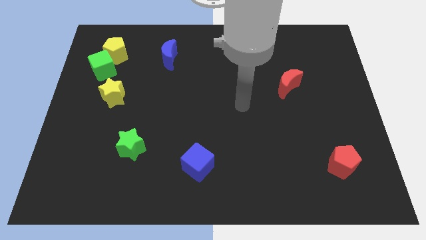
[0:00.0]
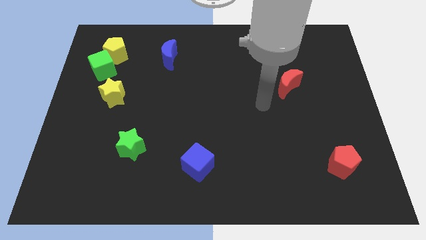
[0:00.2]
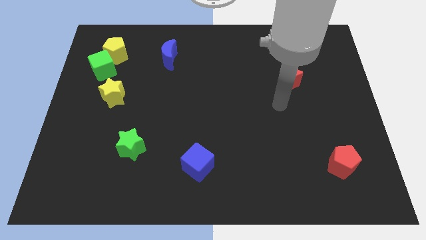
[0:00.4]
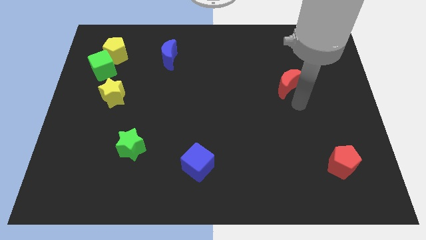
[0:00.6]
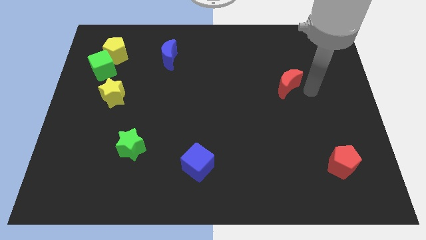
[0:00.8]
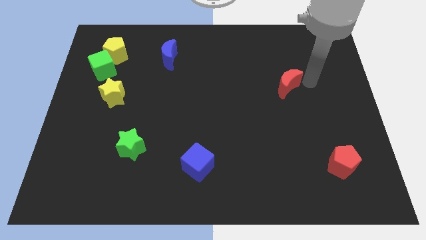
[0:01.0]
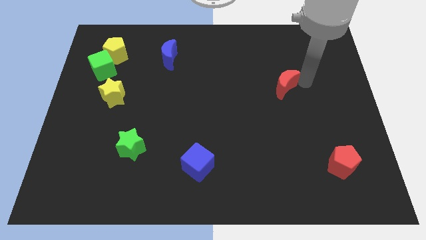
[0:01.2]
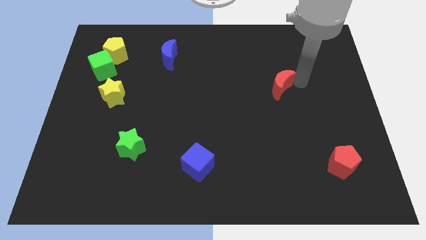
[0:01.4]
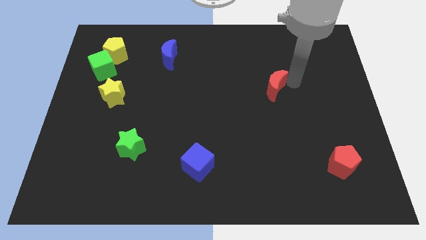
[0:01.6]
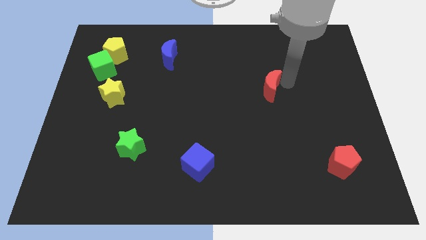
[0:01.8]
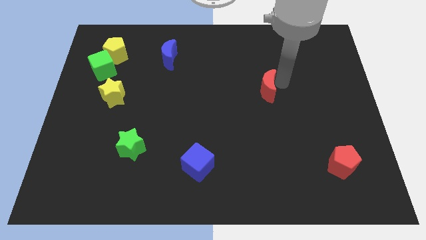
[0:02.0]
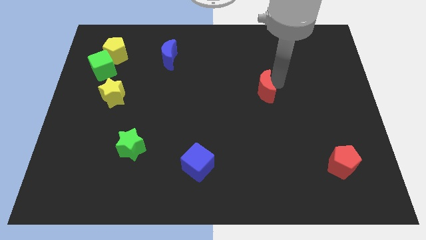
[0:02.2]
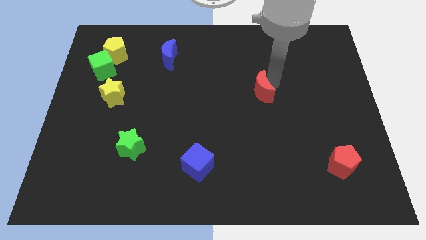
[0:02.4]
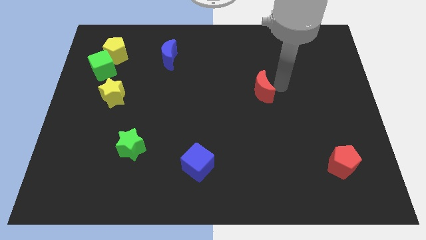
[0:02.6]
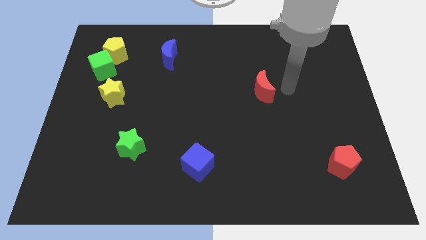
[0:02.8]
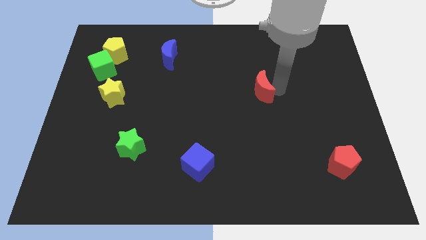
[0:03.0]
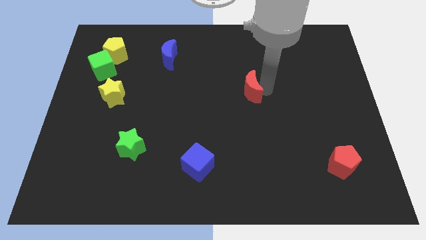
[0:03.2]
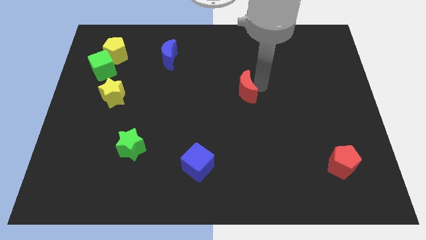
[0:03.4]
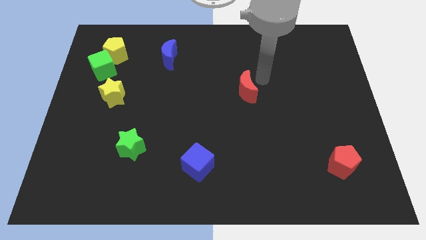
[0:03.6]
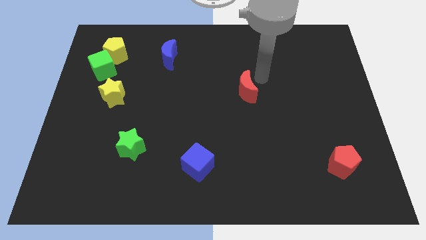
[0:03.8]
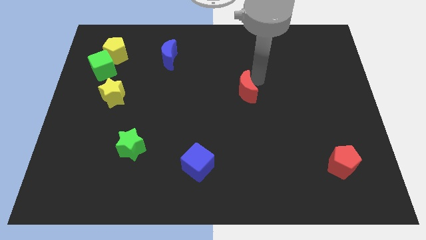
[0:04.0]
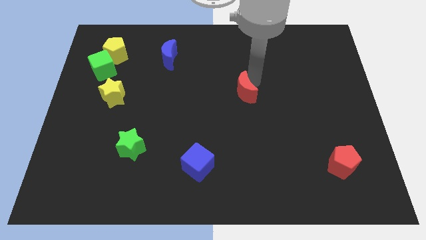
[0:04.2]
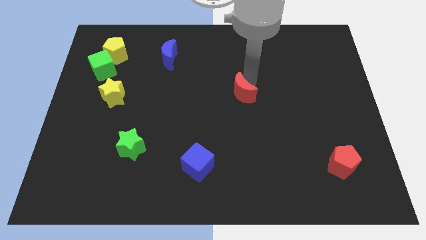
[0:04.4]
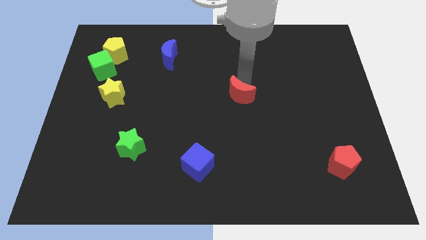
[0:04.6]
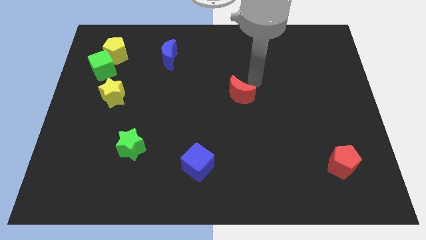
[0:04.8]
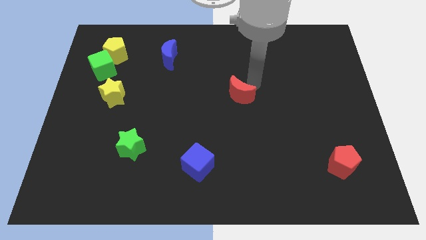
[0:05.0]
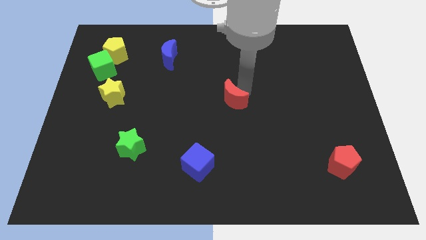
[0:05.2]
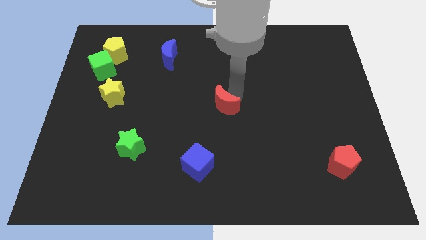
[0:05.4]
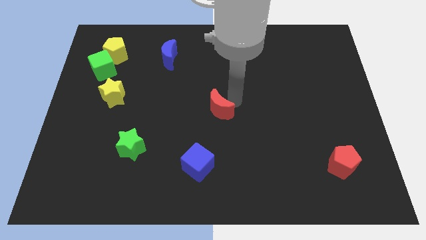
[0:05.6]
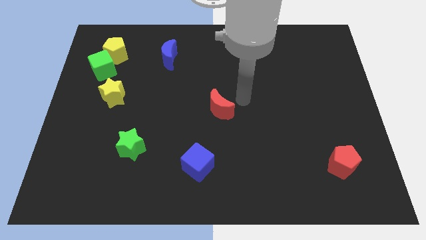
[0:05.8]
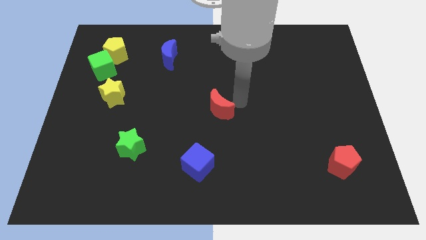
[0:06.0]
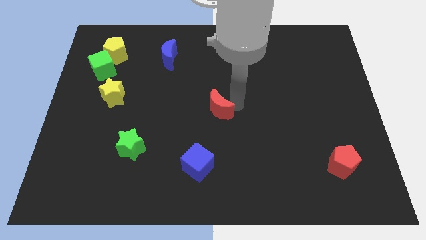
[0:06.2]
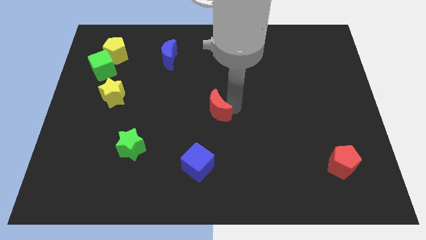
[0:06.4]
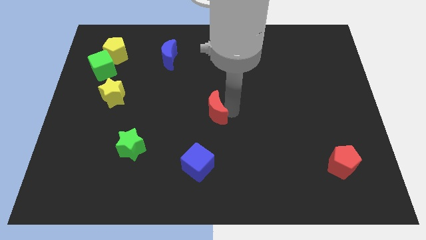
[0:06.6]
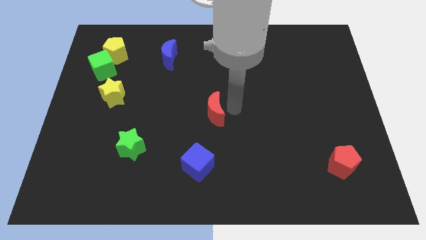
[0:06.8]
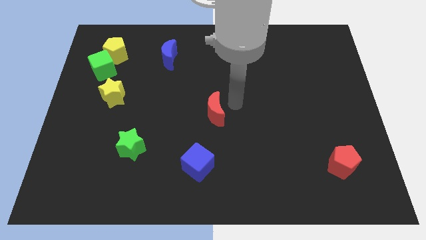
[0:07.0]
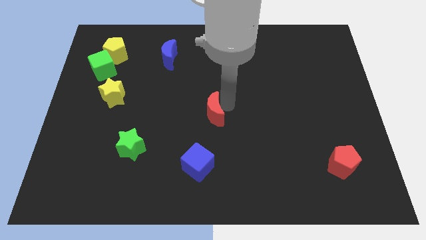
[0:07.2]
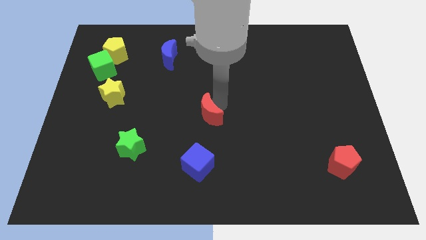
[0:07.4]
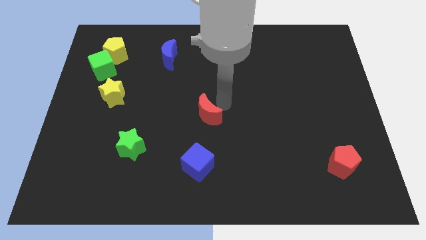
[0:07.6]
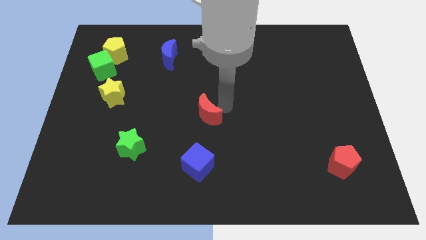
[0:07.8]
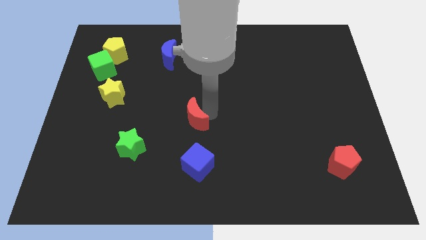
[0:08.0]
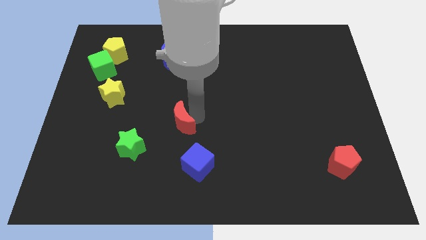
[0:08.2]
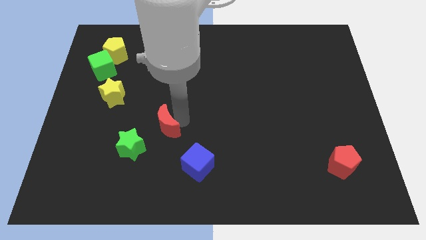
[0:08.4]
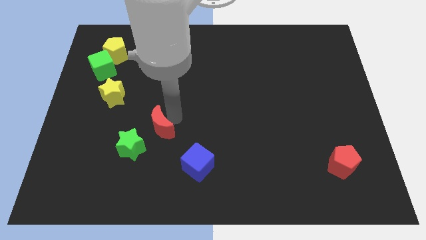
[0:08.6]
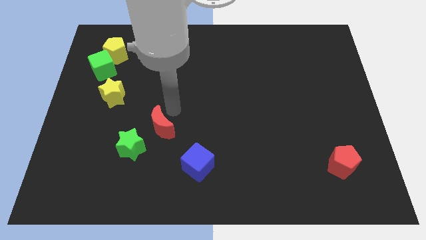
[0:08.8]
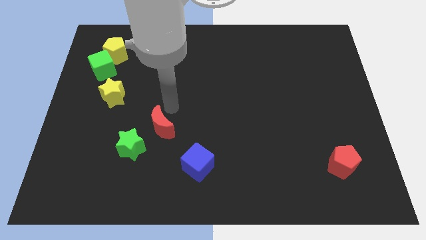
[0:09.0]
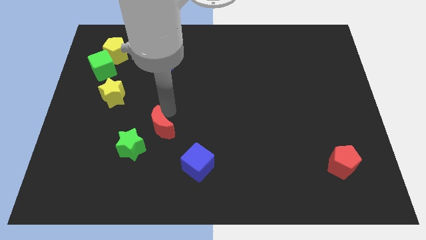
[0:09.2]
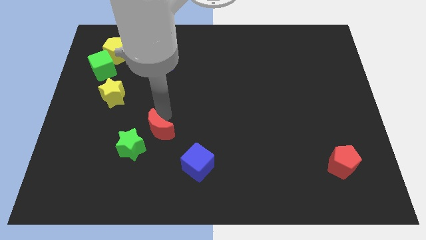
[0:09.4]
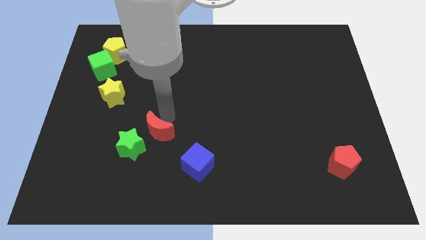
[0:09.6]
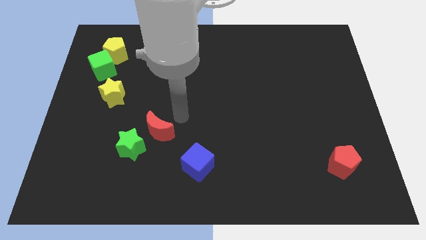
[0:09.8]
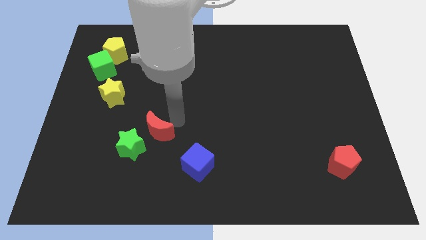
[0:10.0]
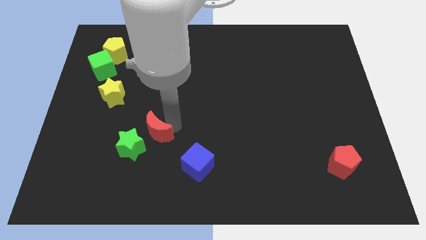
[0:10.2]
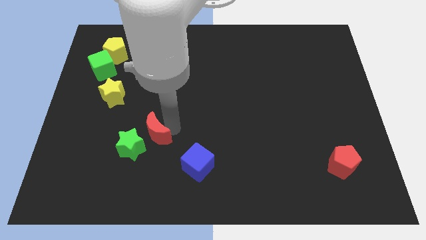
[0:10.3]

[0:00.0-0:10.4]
push the red moon close to the green star

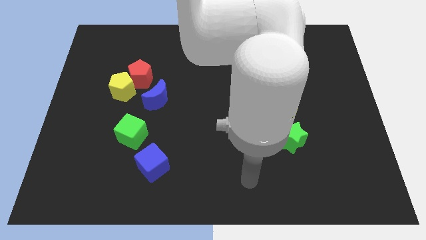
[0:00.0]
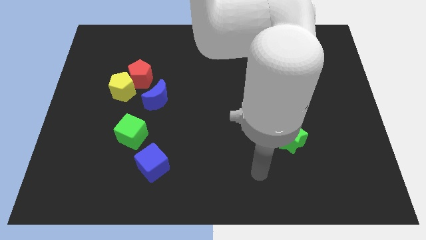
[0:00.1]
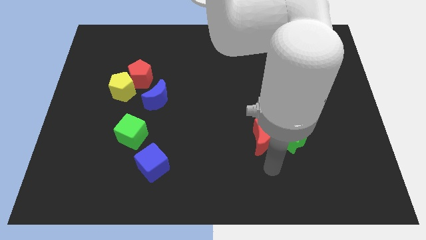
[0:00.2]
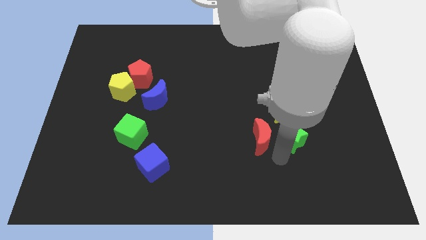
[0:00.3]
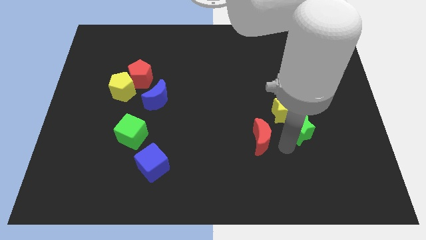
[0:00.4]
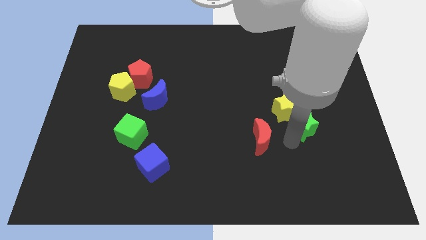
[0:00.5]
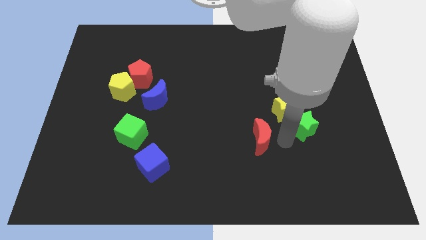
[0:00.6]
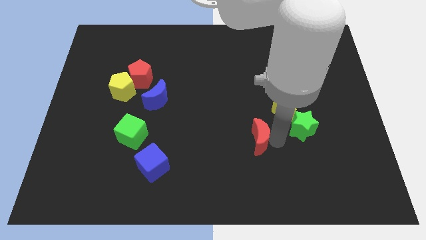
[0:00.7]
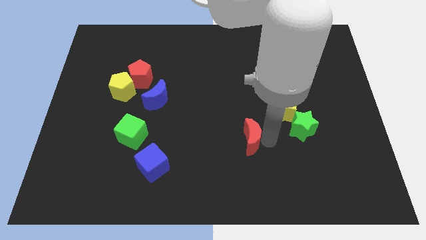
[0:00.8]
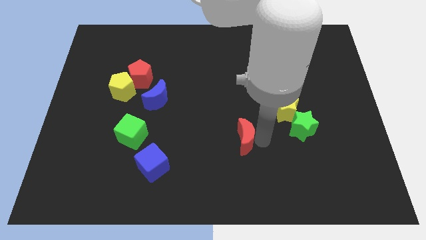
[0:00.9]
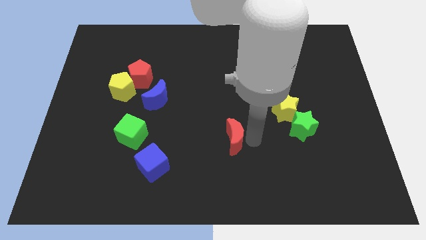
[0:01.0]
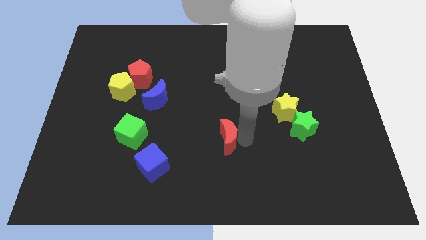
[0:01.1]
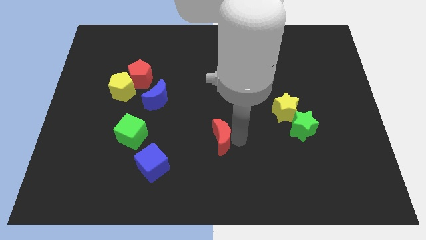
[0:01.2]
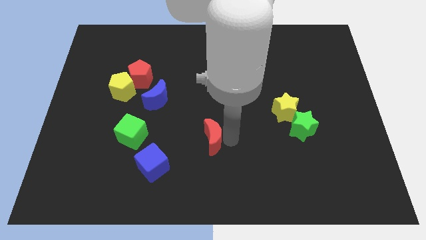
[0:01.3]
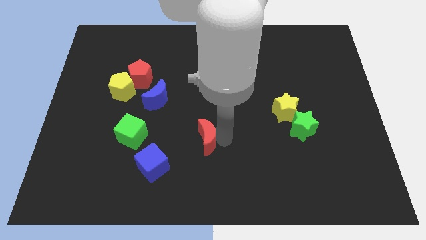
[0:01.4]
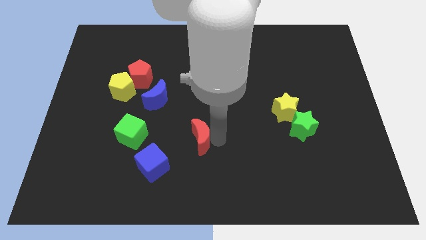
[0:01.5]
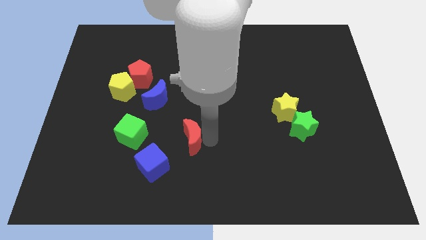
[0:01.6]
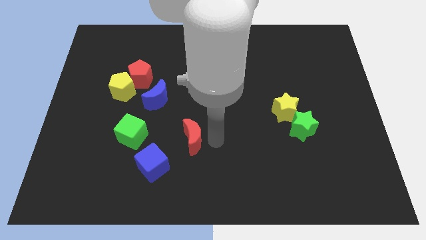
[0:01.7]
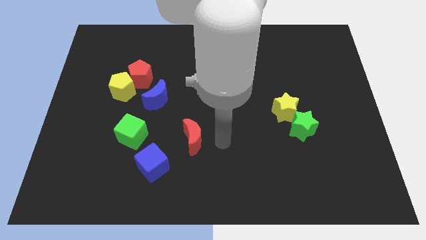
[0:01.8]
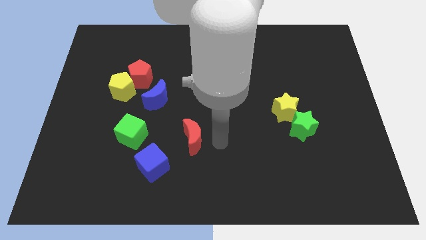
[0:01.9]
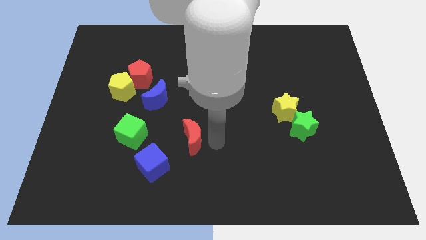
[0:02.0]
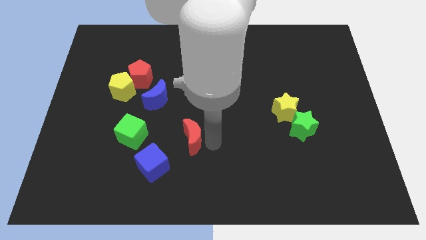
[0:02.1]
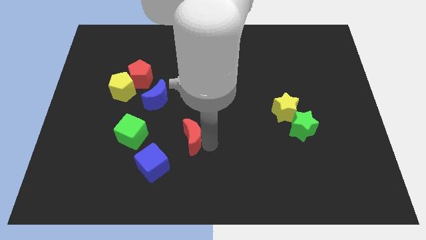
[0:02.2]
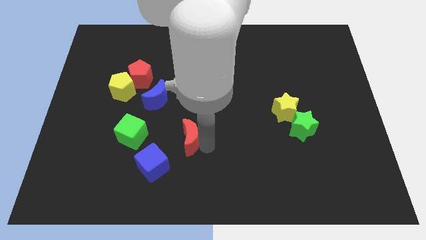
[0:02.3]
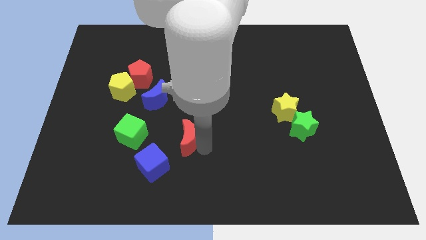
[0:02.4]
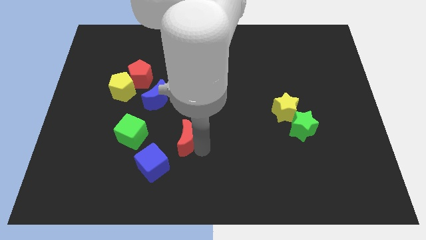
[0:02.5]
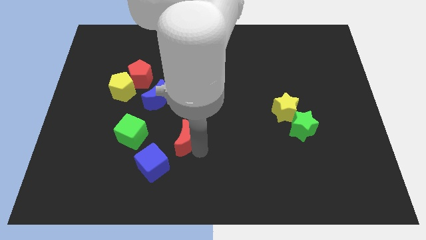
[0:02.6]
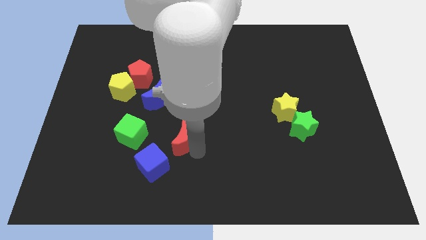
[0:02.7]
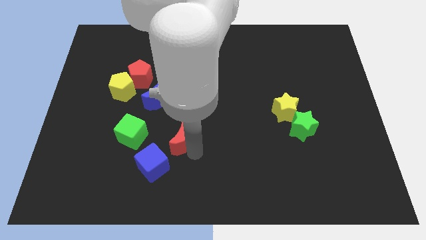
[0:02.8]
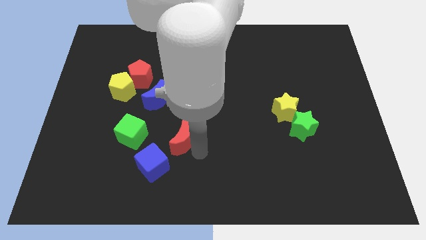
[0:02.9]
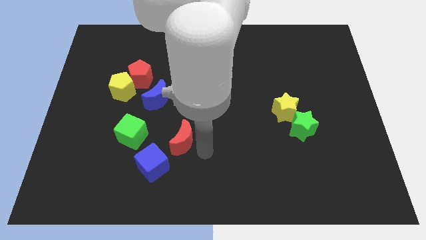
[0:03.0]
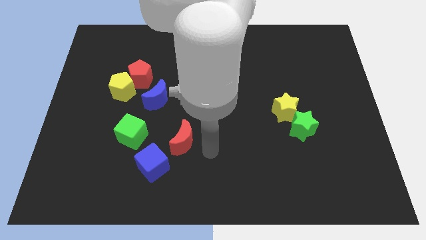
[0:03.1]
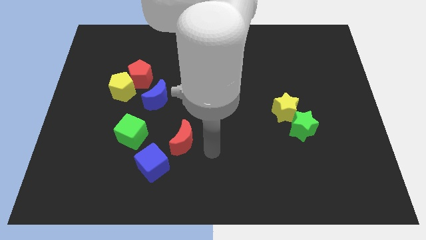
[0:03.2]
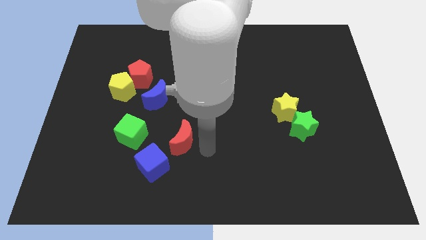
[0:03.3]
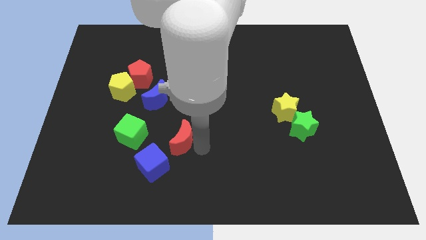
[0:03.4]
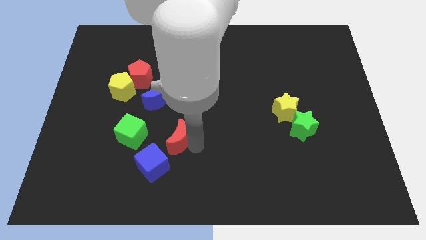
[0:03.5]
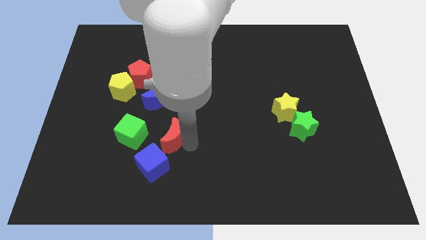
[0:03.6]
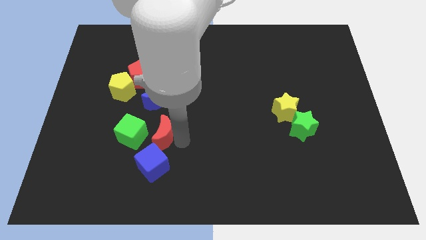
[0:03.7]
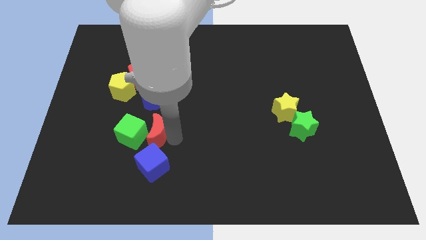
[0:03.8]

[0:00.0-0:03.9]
slide the red moon towards the green cube
